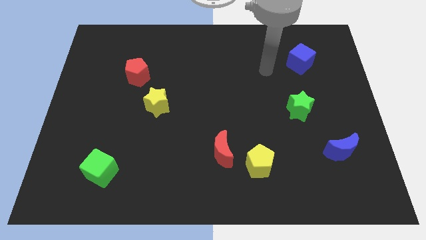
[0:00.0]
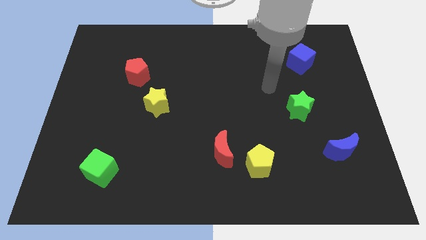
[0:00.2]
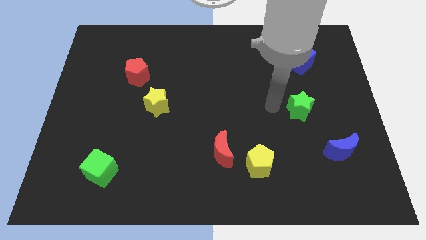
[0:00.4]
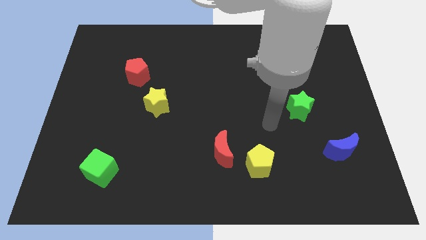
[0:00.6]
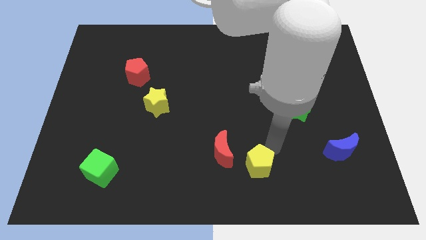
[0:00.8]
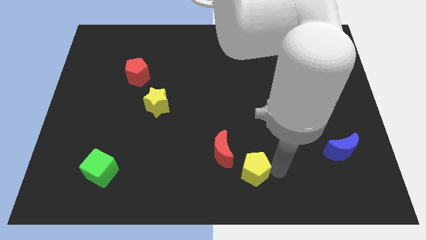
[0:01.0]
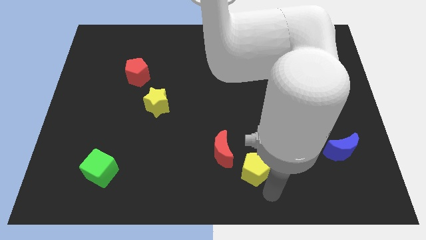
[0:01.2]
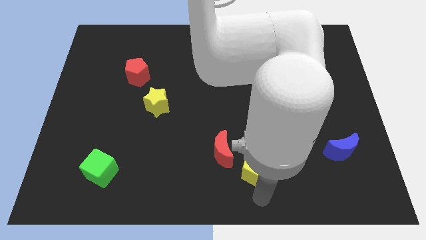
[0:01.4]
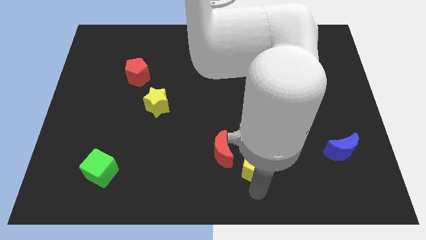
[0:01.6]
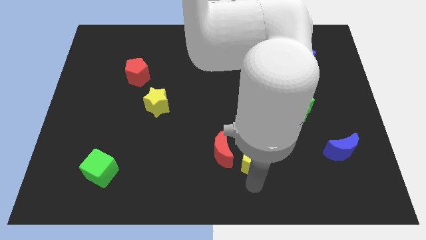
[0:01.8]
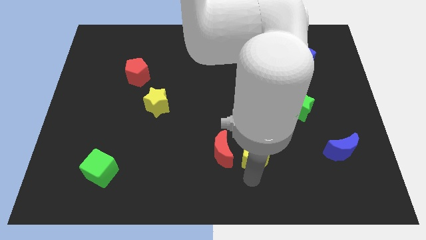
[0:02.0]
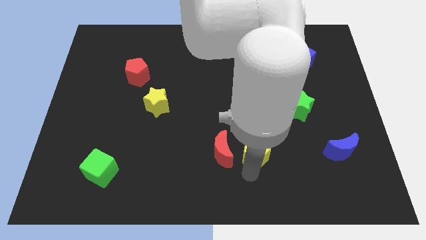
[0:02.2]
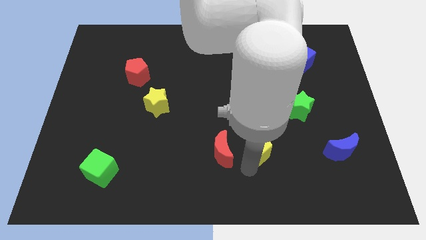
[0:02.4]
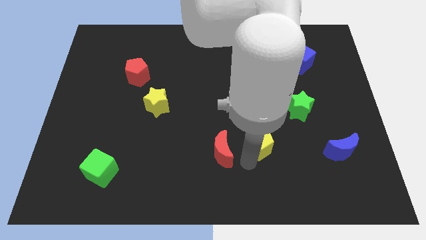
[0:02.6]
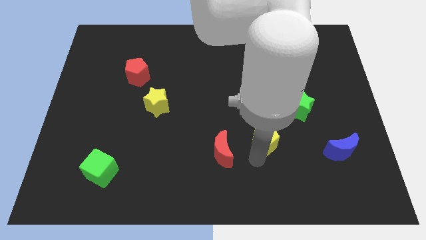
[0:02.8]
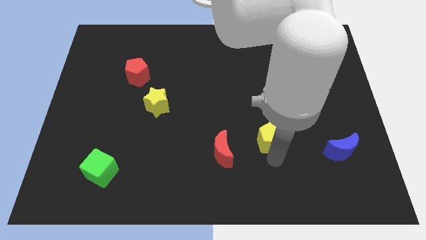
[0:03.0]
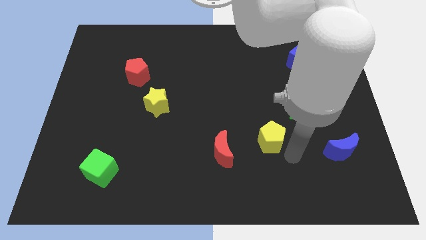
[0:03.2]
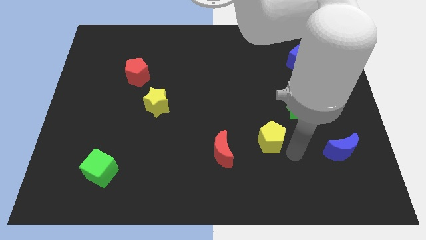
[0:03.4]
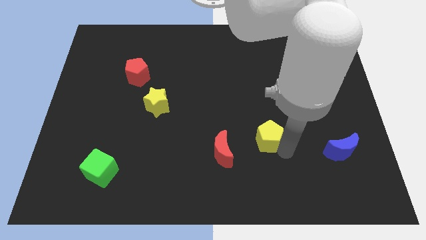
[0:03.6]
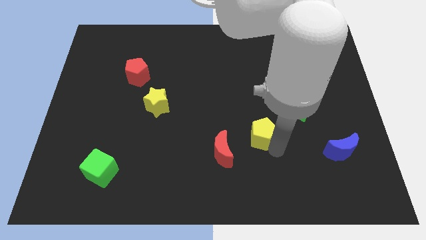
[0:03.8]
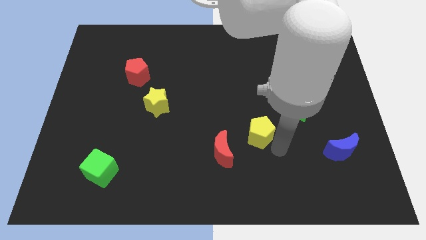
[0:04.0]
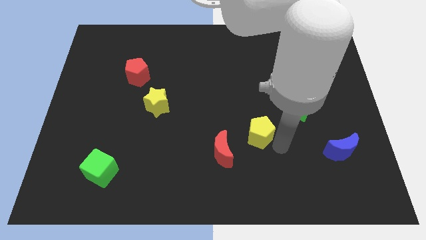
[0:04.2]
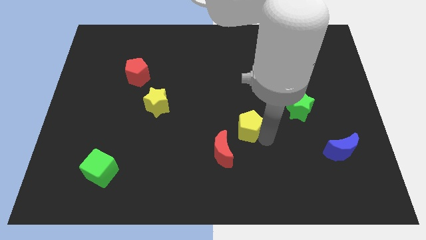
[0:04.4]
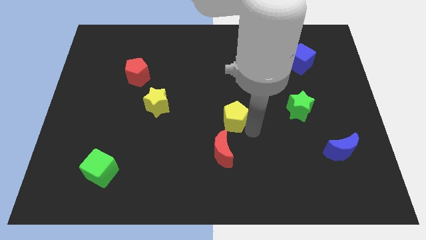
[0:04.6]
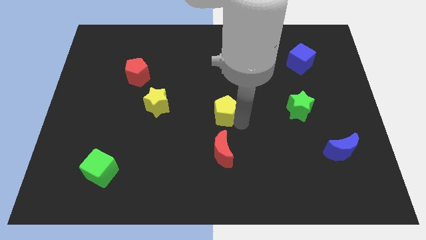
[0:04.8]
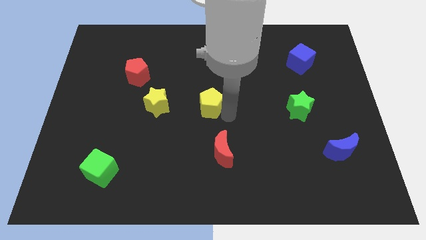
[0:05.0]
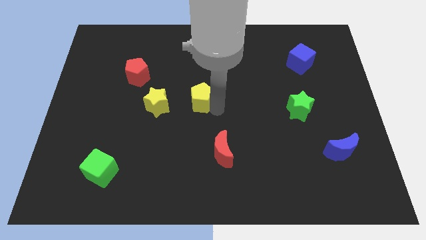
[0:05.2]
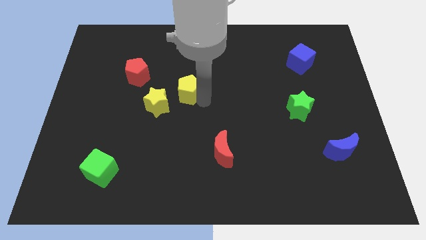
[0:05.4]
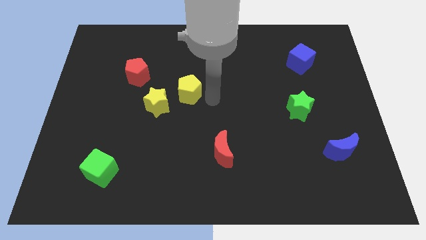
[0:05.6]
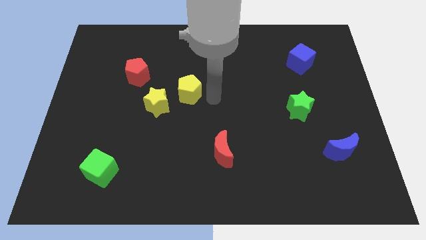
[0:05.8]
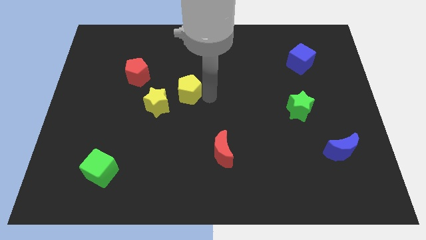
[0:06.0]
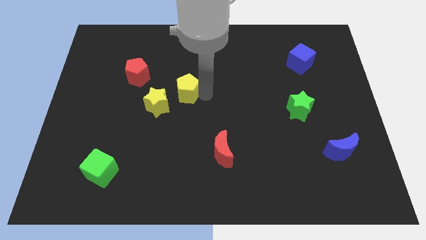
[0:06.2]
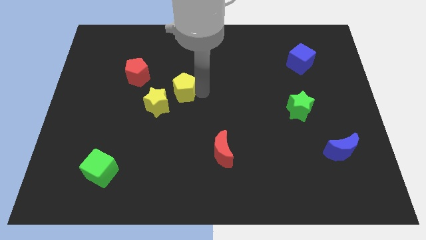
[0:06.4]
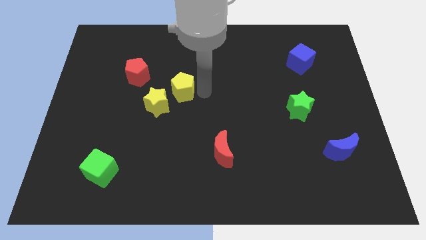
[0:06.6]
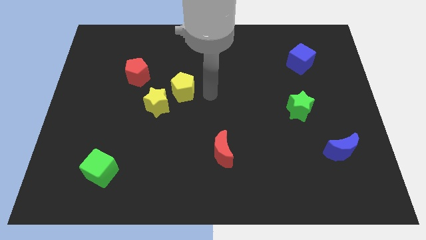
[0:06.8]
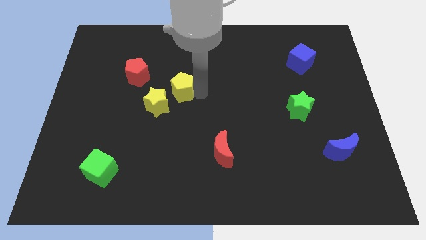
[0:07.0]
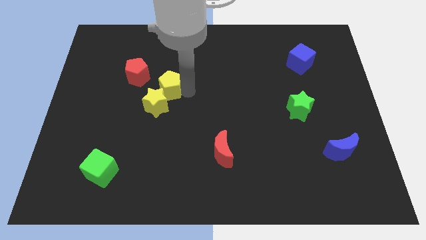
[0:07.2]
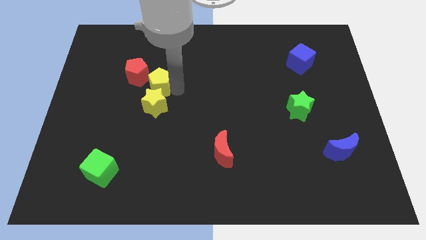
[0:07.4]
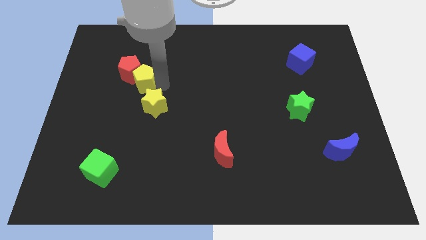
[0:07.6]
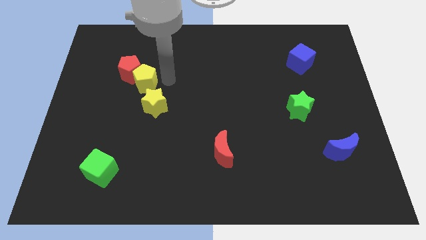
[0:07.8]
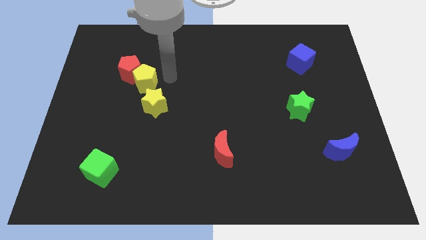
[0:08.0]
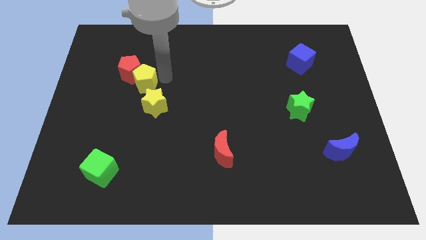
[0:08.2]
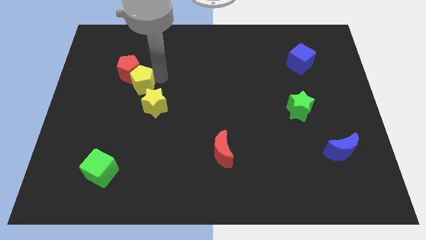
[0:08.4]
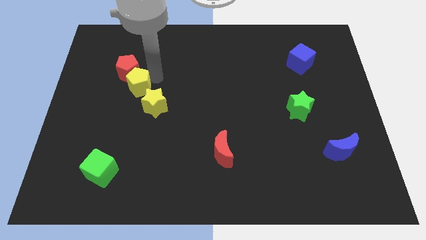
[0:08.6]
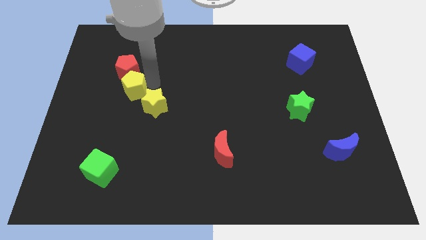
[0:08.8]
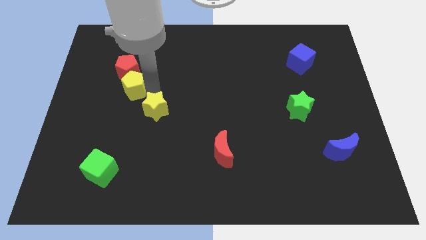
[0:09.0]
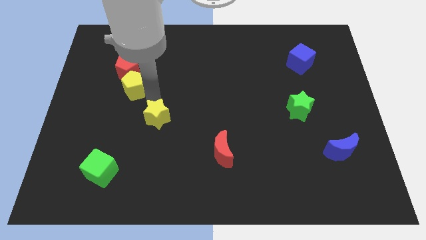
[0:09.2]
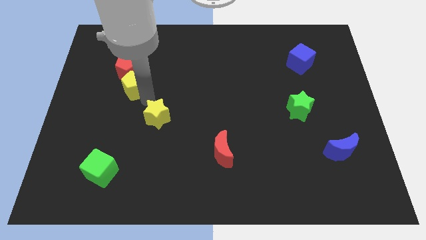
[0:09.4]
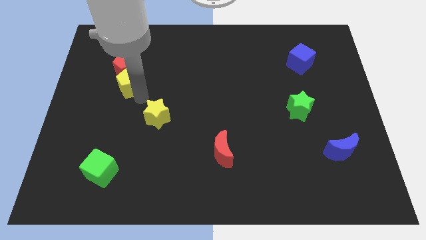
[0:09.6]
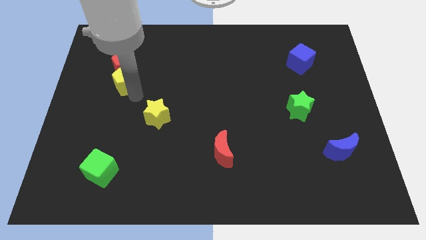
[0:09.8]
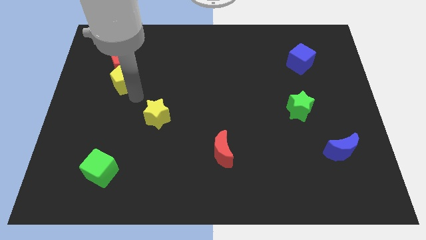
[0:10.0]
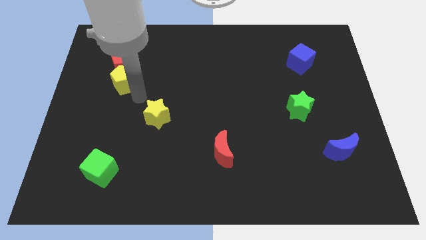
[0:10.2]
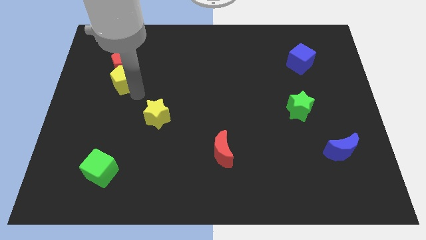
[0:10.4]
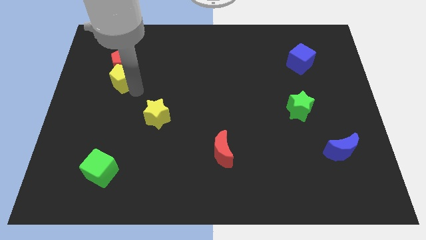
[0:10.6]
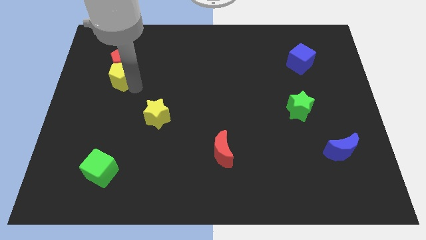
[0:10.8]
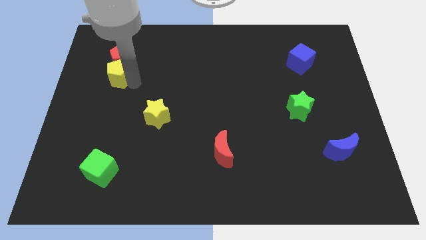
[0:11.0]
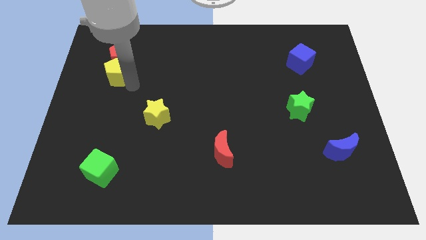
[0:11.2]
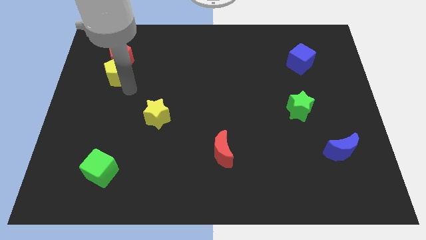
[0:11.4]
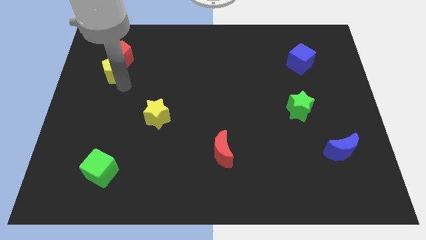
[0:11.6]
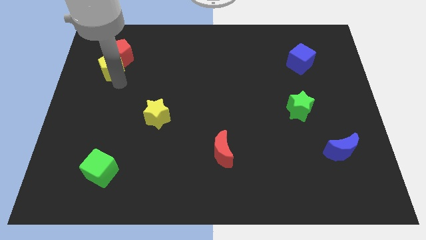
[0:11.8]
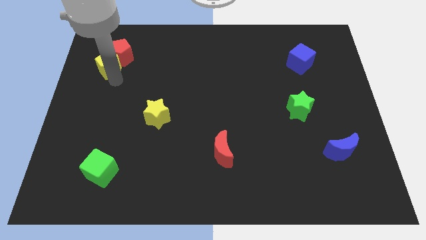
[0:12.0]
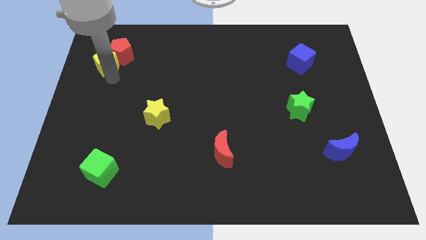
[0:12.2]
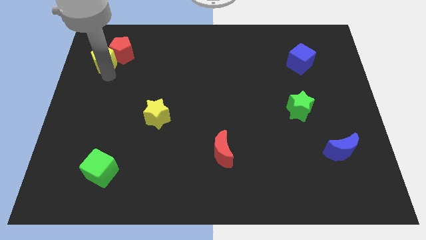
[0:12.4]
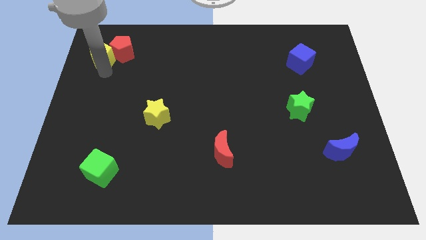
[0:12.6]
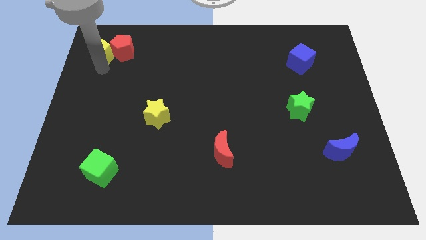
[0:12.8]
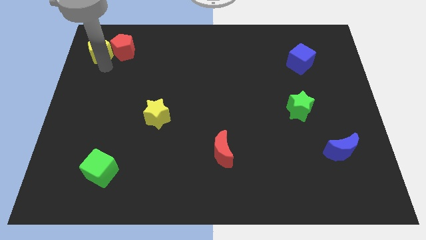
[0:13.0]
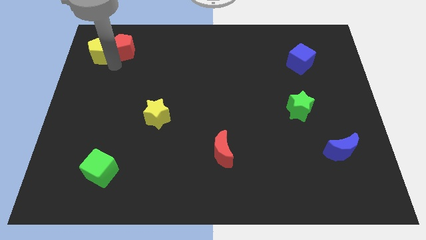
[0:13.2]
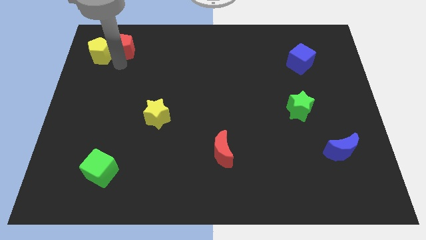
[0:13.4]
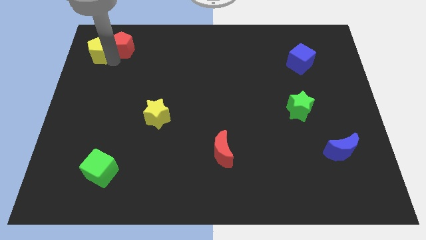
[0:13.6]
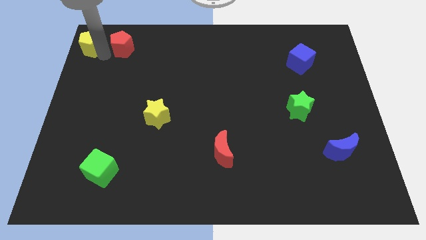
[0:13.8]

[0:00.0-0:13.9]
put the yellow pentagon to the top left

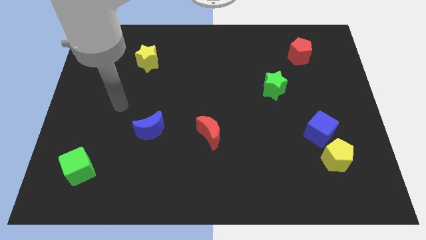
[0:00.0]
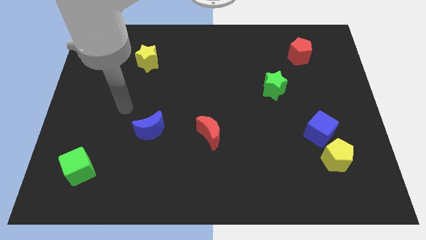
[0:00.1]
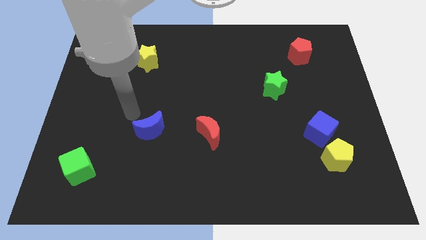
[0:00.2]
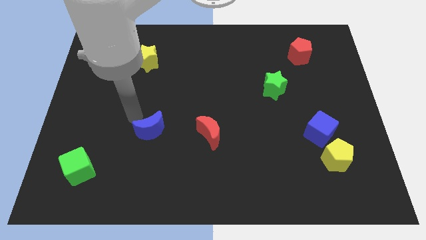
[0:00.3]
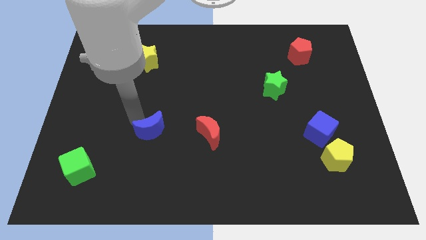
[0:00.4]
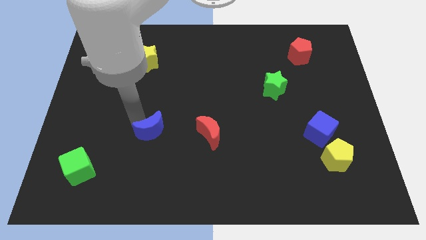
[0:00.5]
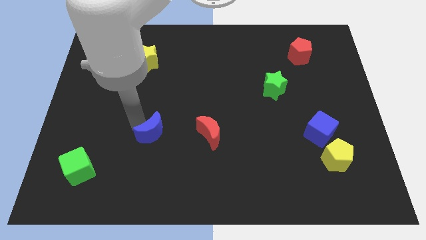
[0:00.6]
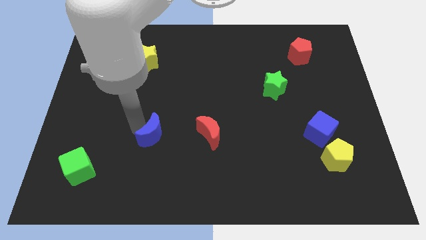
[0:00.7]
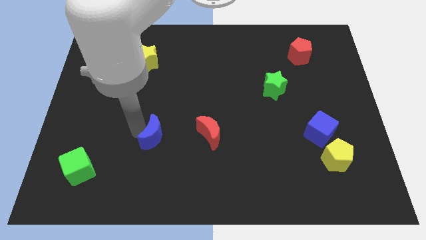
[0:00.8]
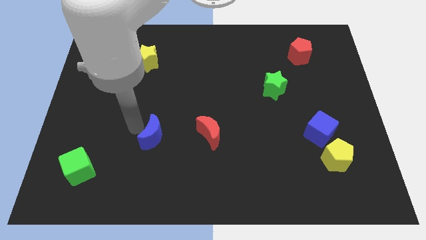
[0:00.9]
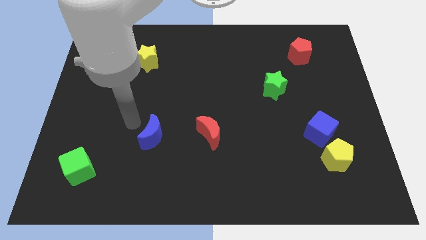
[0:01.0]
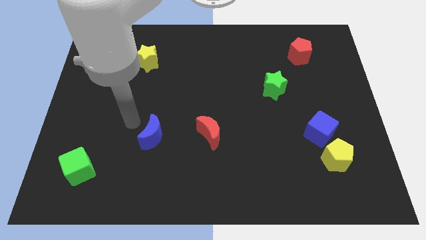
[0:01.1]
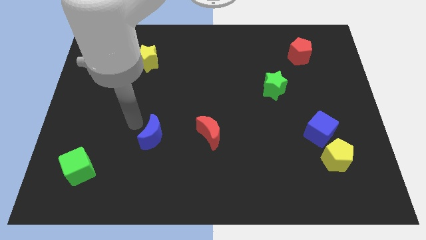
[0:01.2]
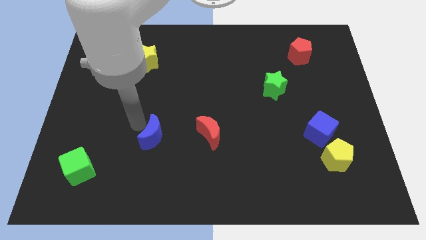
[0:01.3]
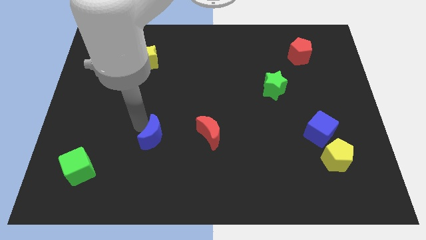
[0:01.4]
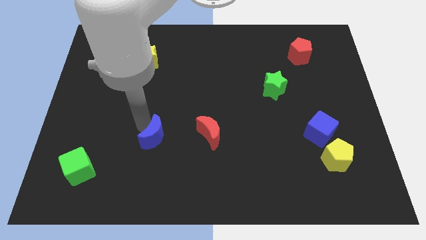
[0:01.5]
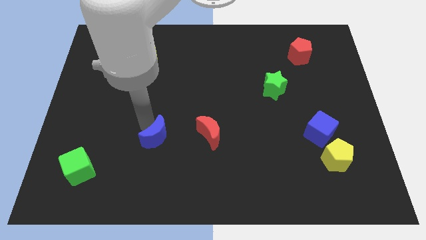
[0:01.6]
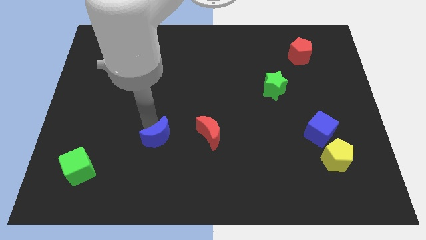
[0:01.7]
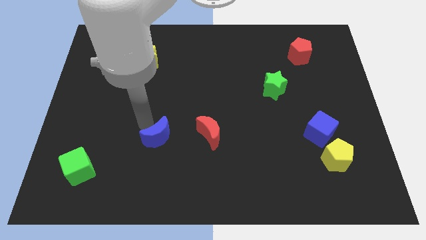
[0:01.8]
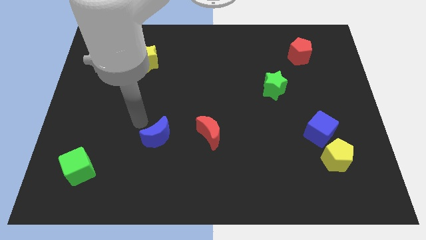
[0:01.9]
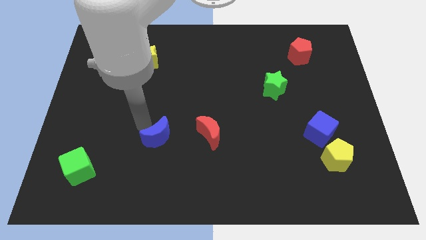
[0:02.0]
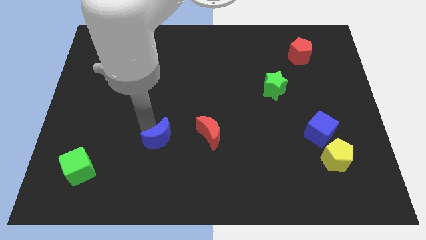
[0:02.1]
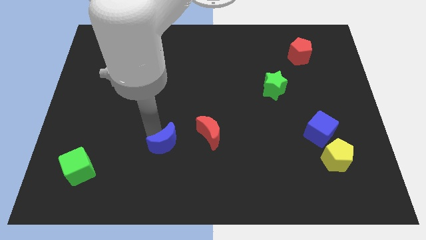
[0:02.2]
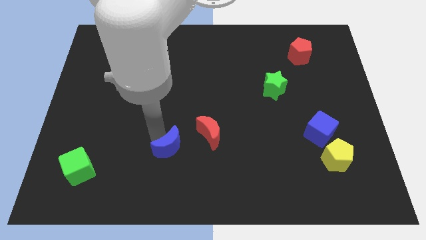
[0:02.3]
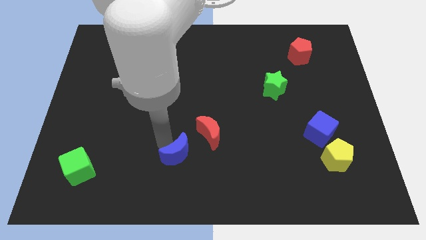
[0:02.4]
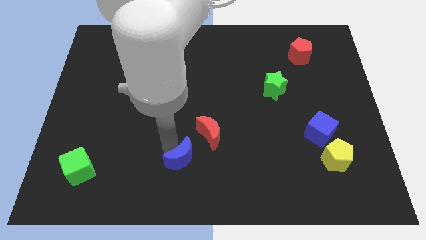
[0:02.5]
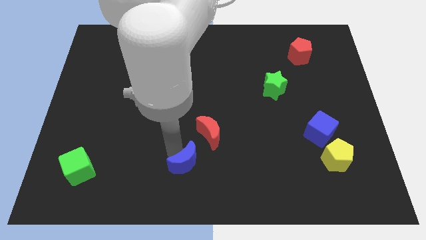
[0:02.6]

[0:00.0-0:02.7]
push the blue moon to the bottom side
